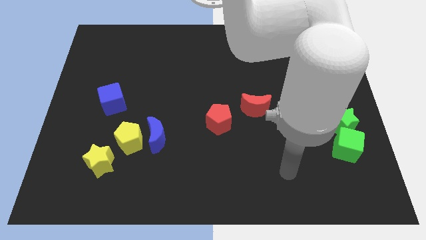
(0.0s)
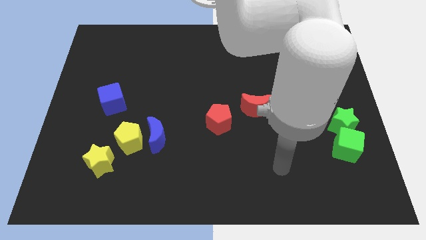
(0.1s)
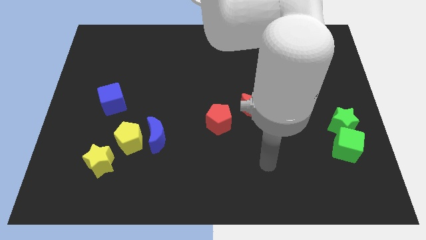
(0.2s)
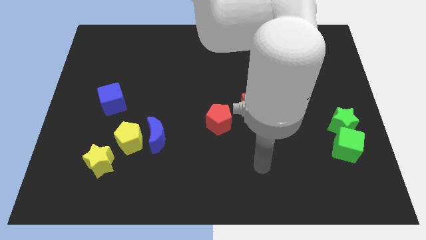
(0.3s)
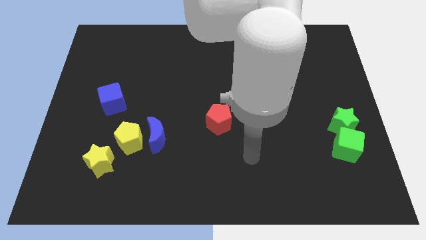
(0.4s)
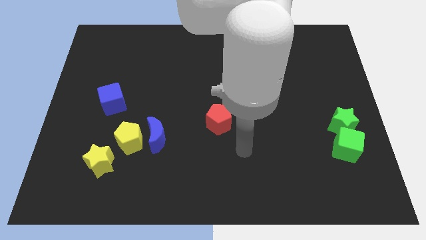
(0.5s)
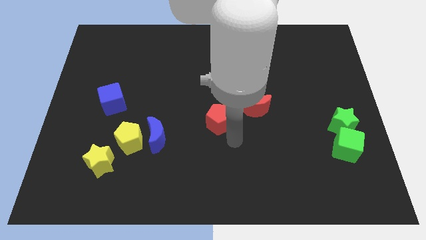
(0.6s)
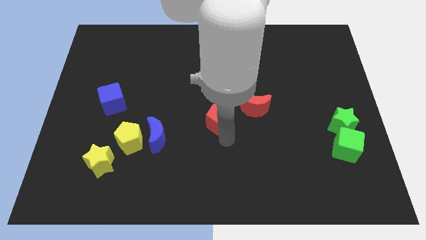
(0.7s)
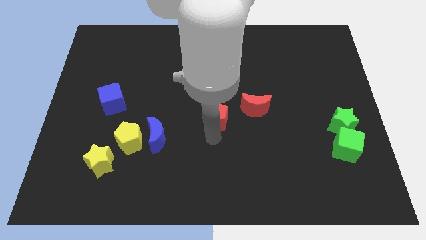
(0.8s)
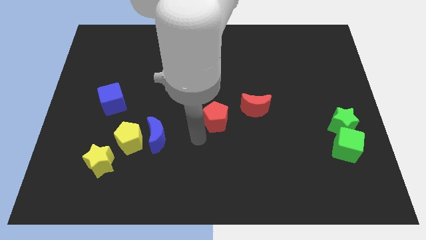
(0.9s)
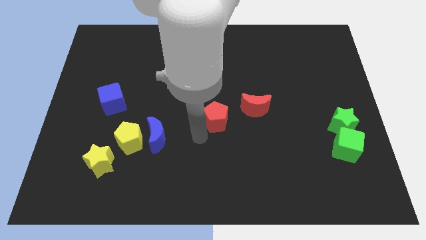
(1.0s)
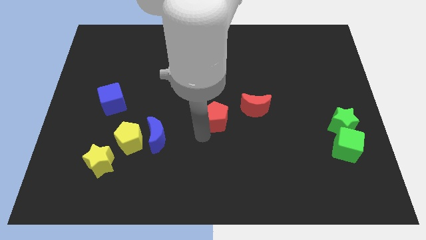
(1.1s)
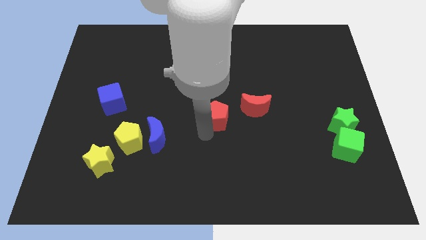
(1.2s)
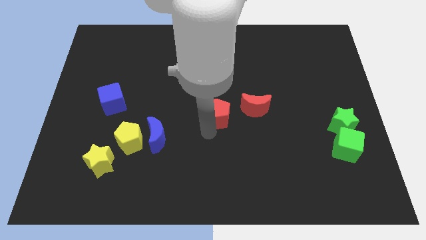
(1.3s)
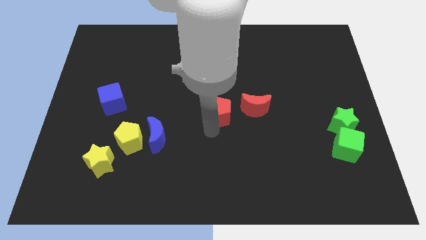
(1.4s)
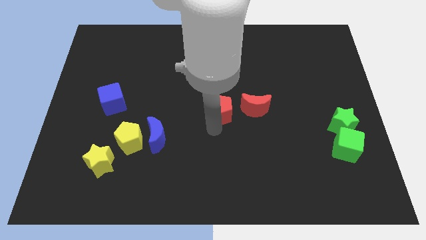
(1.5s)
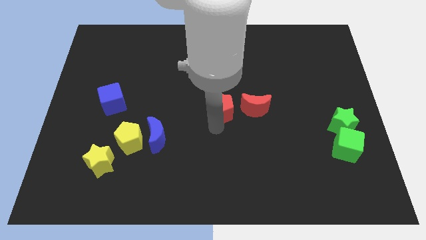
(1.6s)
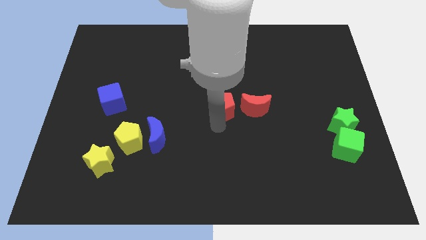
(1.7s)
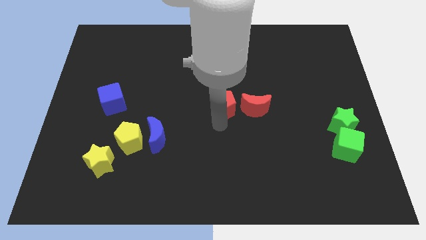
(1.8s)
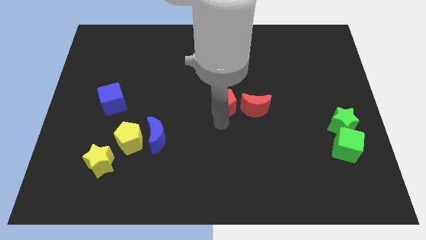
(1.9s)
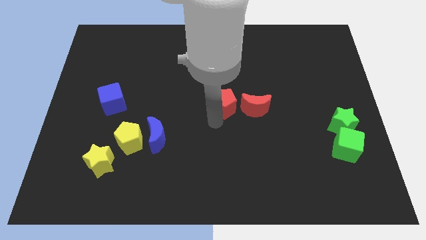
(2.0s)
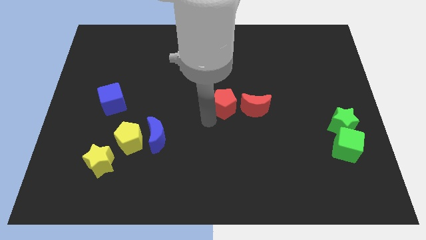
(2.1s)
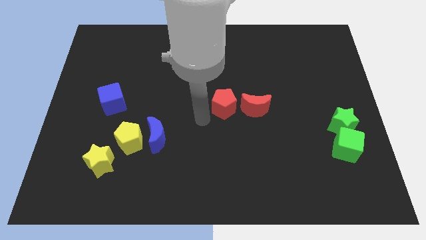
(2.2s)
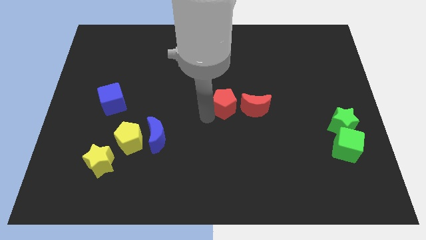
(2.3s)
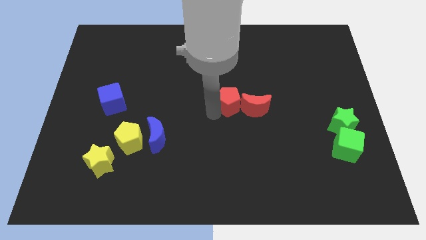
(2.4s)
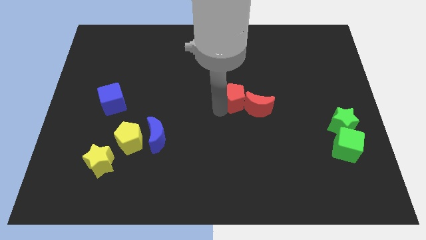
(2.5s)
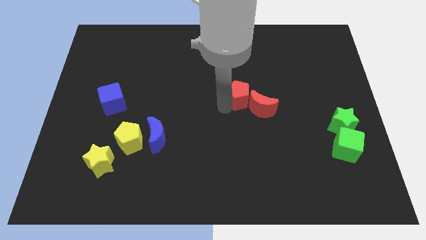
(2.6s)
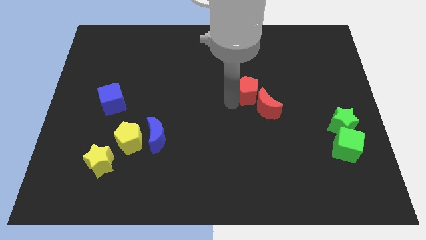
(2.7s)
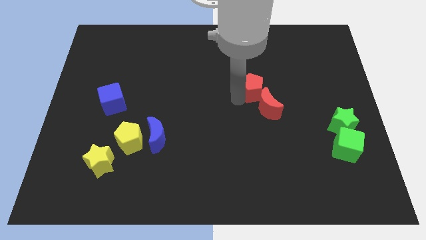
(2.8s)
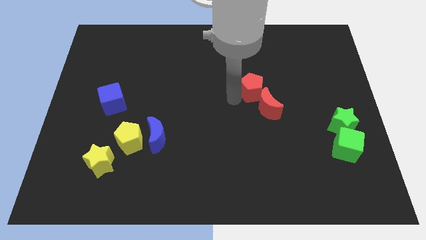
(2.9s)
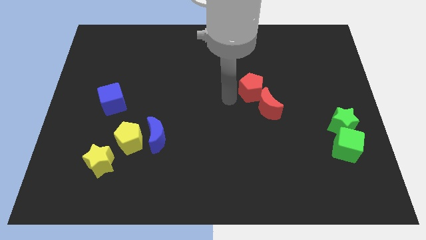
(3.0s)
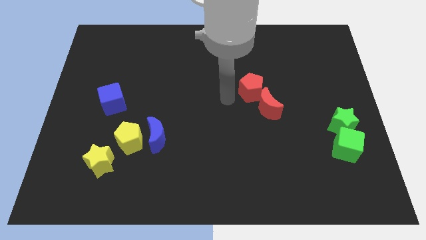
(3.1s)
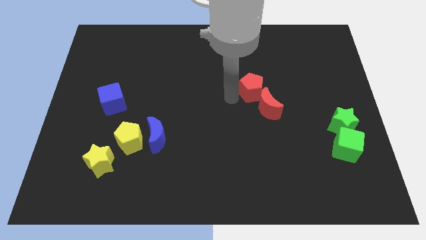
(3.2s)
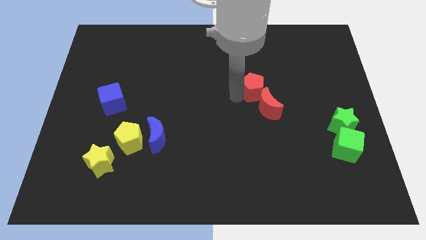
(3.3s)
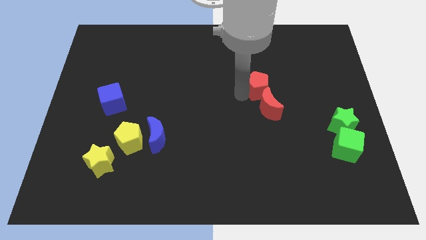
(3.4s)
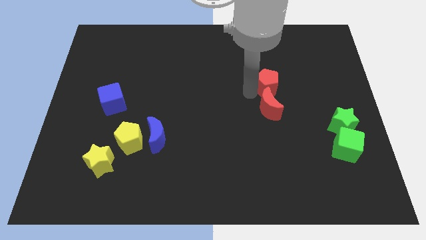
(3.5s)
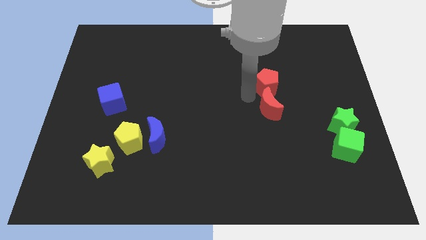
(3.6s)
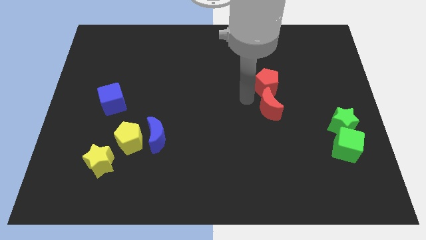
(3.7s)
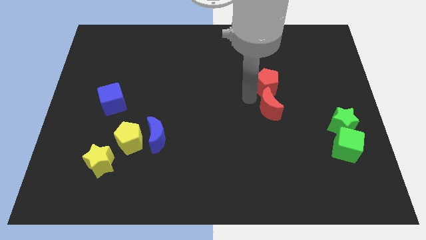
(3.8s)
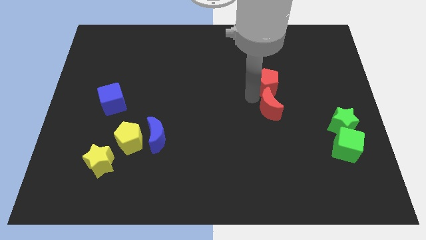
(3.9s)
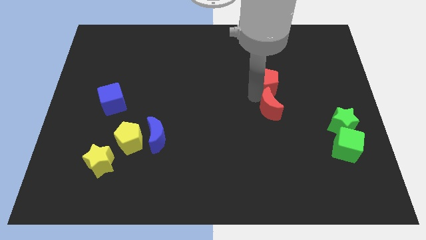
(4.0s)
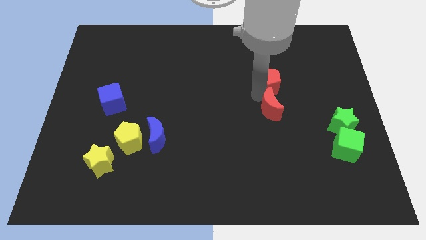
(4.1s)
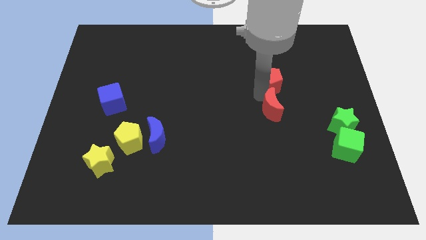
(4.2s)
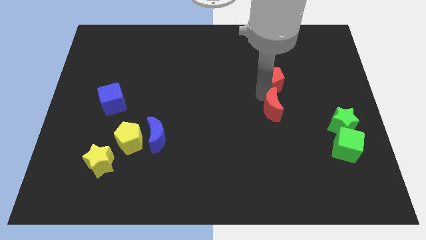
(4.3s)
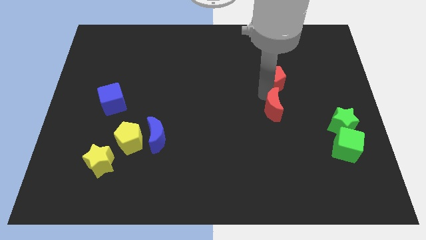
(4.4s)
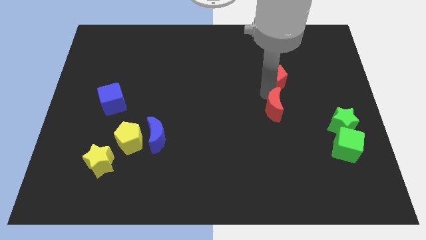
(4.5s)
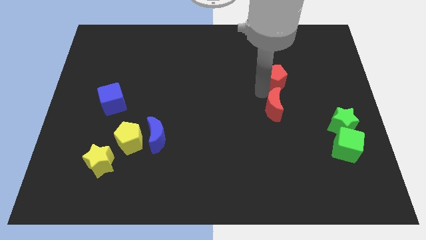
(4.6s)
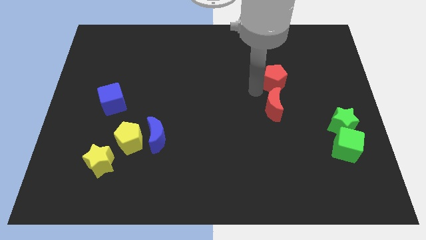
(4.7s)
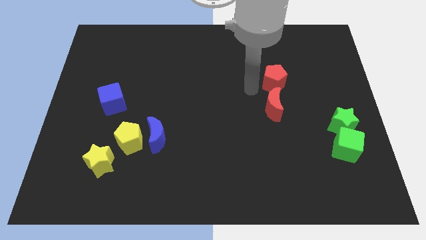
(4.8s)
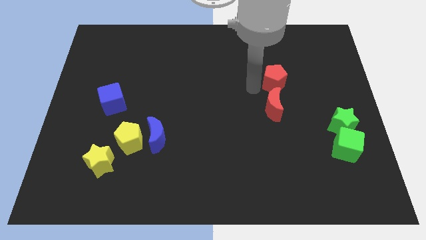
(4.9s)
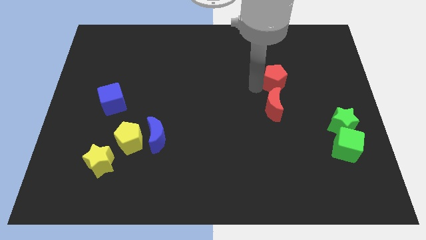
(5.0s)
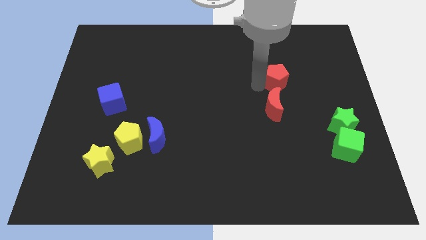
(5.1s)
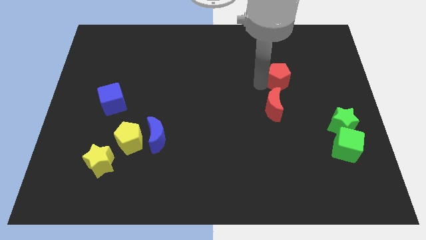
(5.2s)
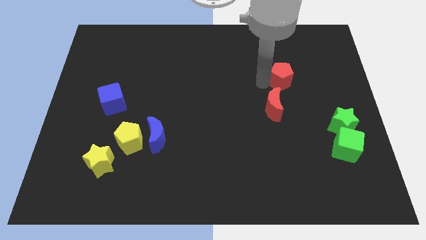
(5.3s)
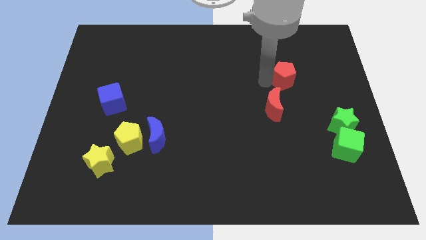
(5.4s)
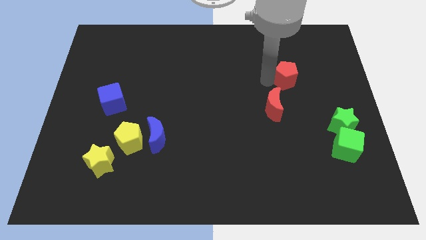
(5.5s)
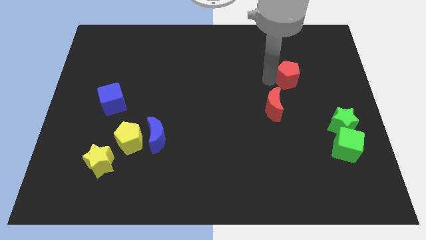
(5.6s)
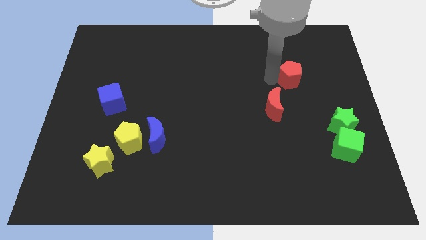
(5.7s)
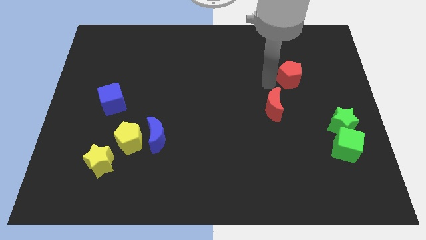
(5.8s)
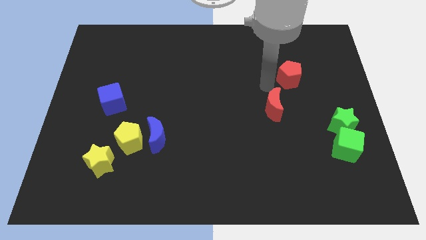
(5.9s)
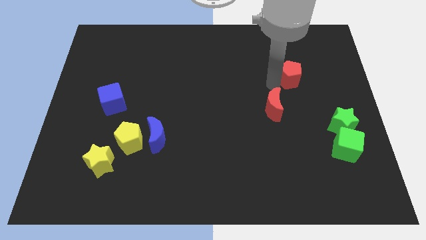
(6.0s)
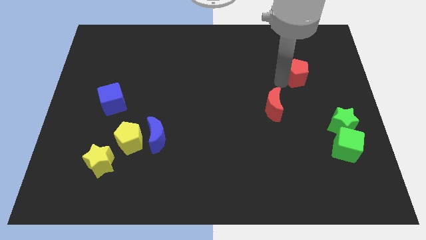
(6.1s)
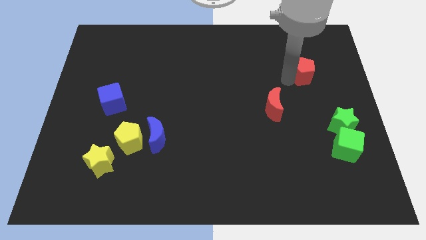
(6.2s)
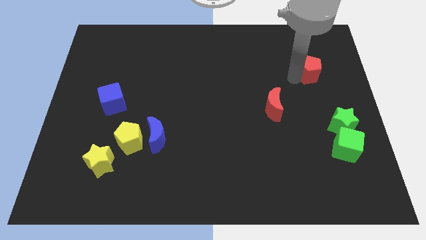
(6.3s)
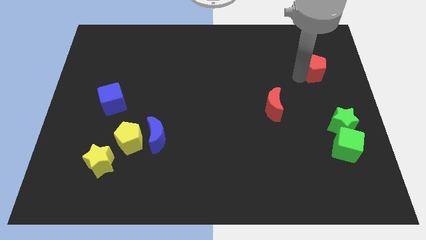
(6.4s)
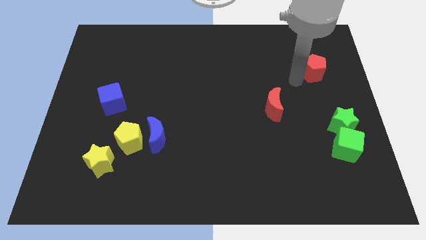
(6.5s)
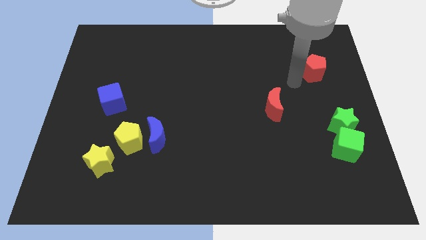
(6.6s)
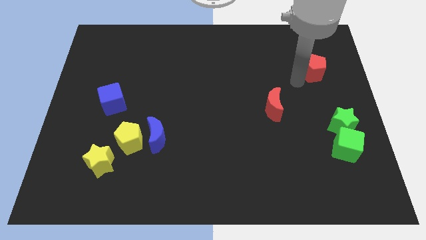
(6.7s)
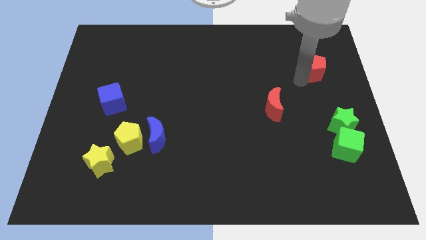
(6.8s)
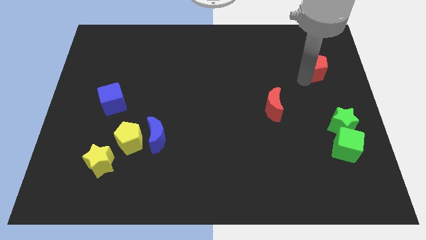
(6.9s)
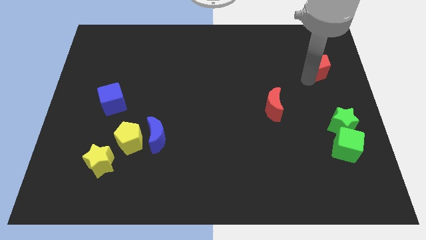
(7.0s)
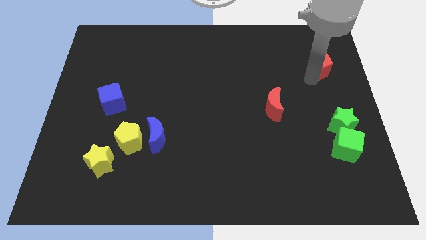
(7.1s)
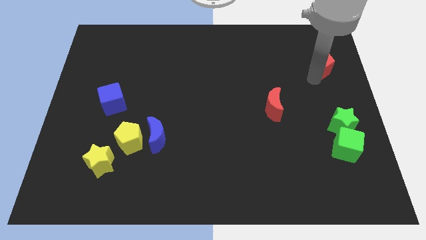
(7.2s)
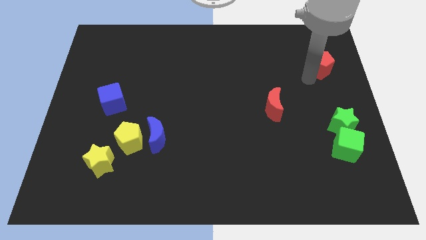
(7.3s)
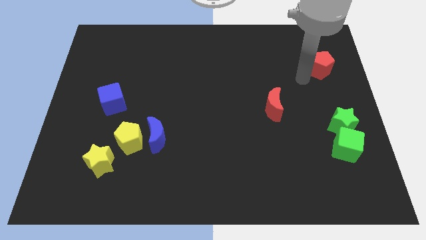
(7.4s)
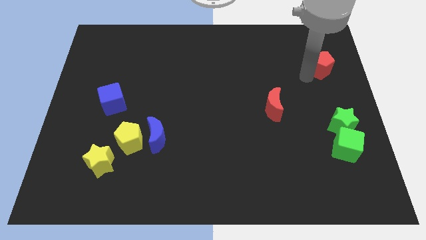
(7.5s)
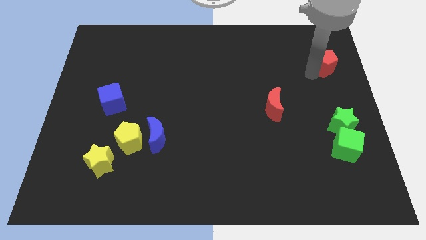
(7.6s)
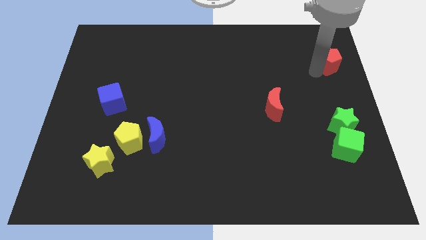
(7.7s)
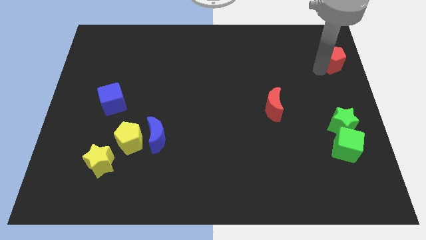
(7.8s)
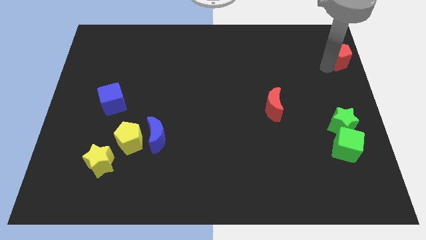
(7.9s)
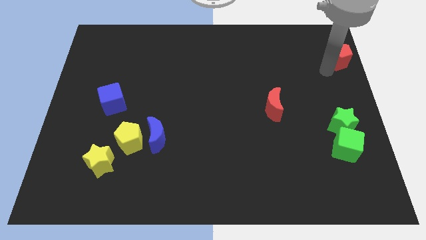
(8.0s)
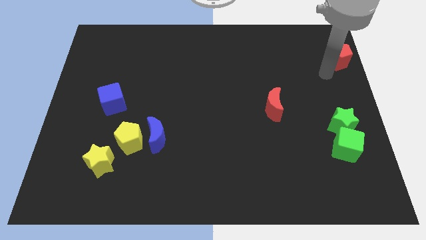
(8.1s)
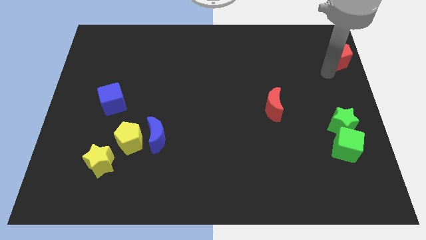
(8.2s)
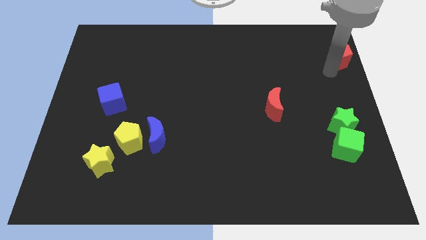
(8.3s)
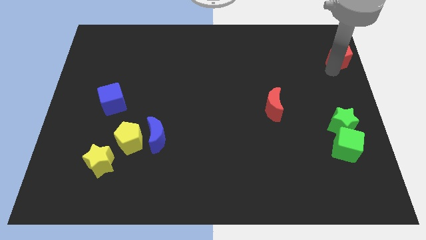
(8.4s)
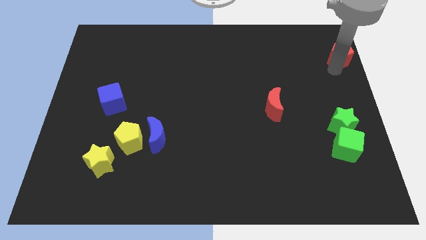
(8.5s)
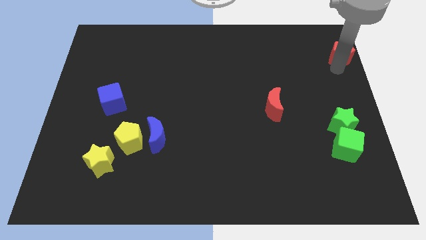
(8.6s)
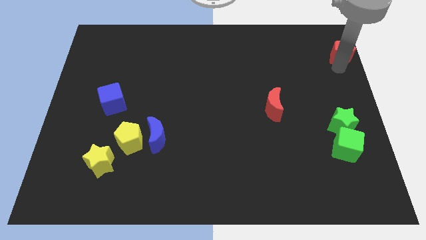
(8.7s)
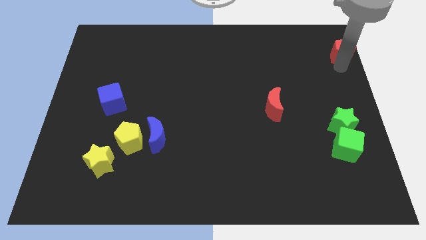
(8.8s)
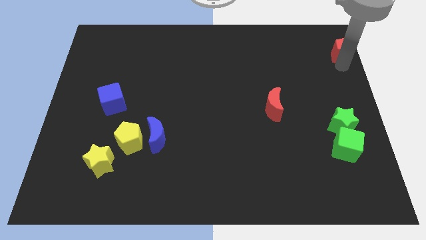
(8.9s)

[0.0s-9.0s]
push the red pentagon to the upper right corner
